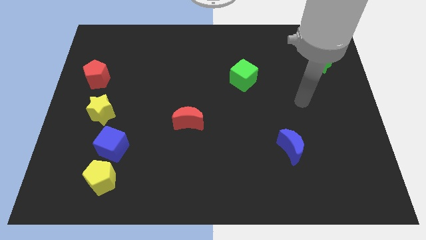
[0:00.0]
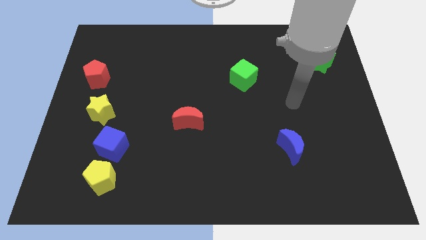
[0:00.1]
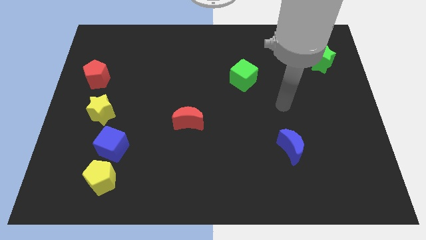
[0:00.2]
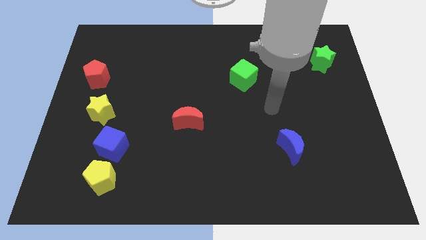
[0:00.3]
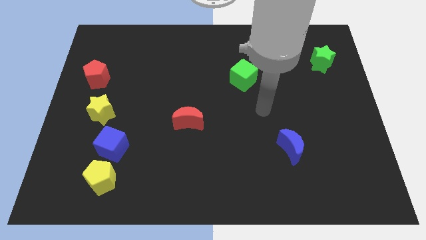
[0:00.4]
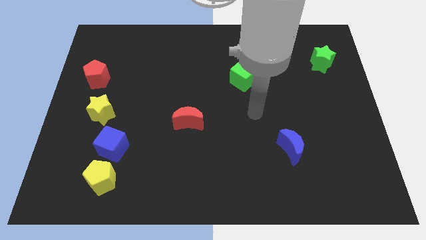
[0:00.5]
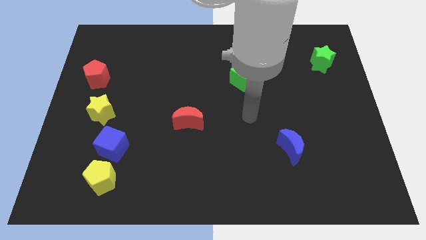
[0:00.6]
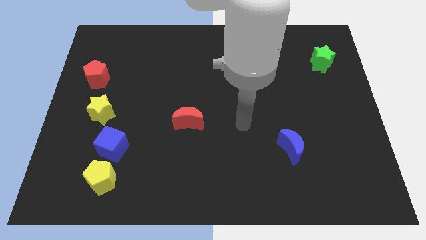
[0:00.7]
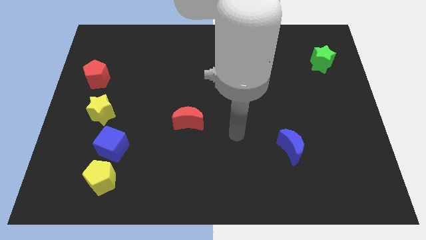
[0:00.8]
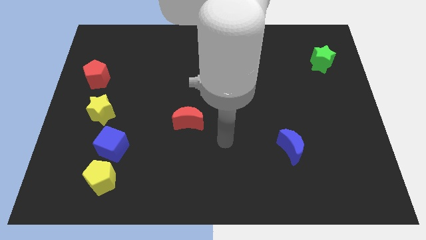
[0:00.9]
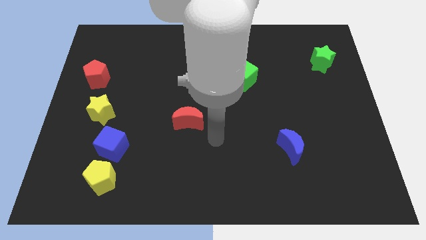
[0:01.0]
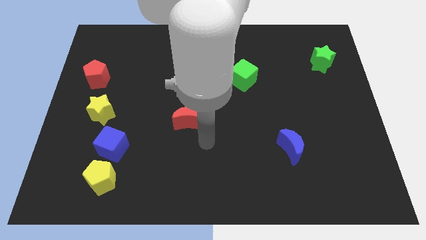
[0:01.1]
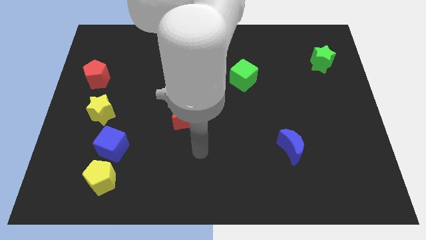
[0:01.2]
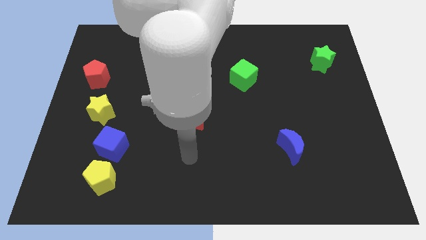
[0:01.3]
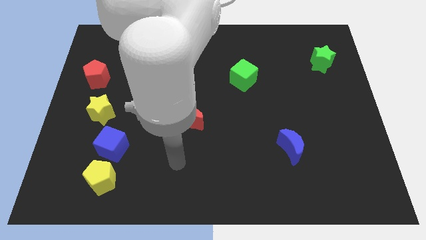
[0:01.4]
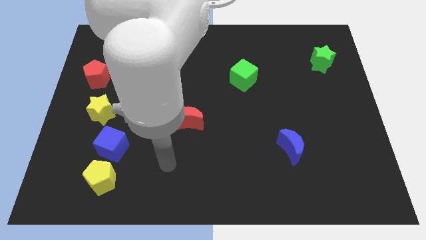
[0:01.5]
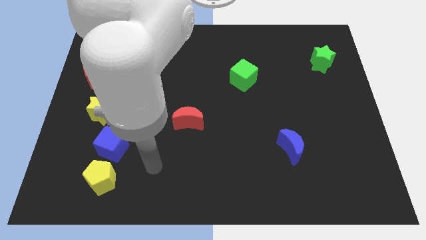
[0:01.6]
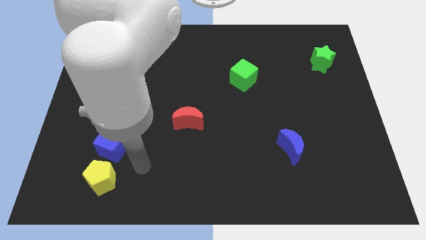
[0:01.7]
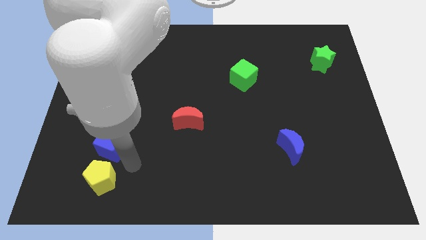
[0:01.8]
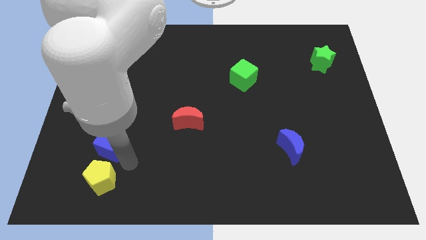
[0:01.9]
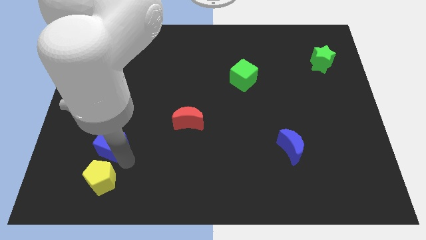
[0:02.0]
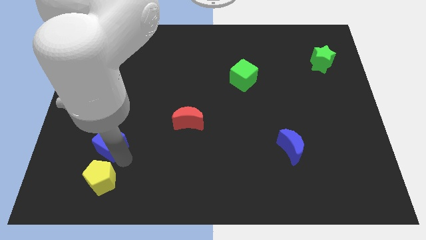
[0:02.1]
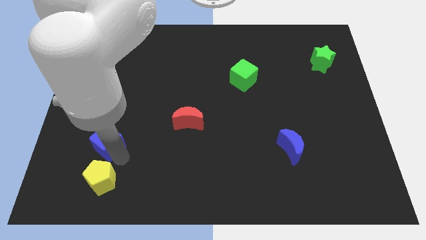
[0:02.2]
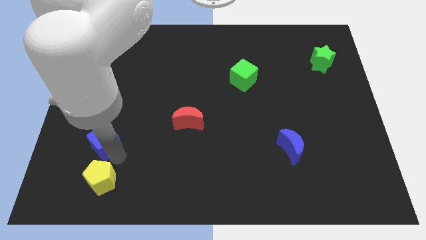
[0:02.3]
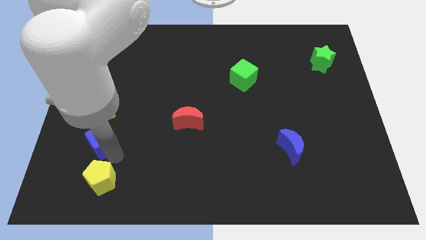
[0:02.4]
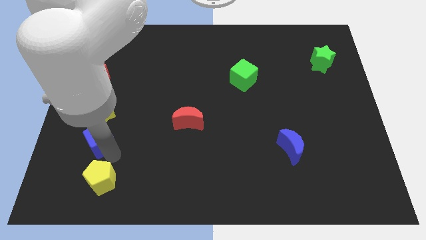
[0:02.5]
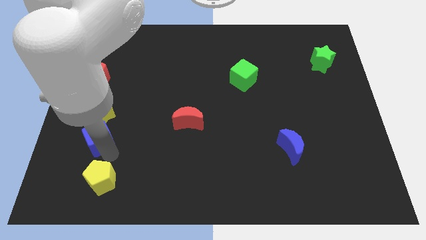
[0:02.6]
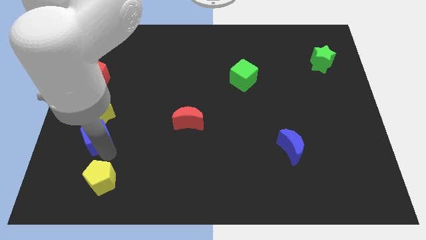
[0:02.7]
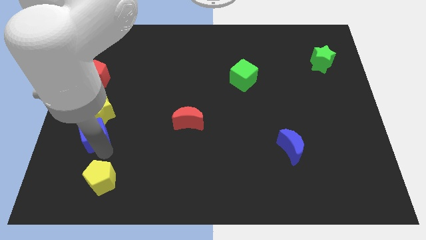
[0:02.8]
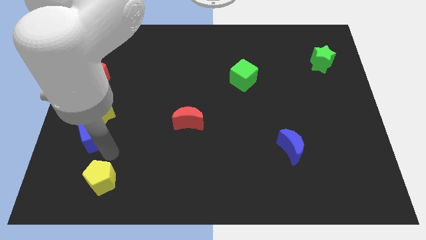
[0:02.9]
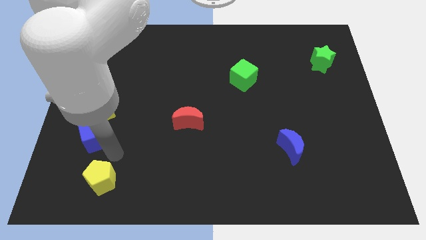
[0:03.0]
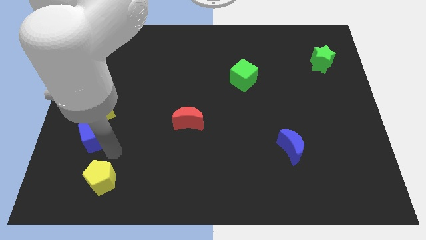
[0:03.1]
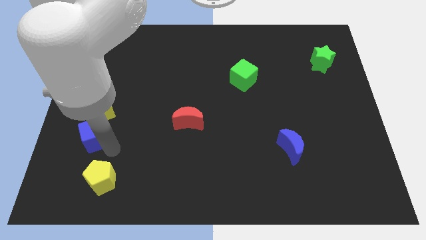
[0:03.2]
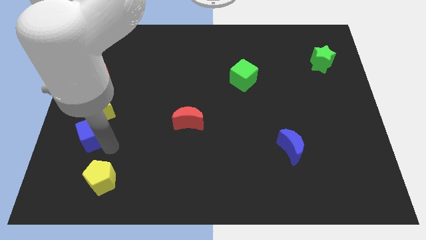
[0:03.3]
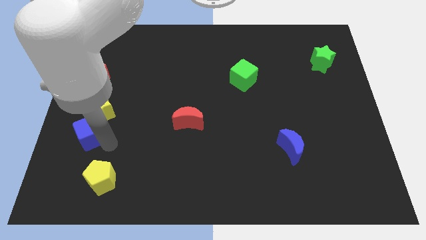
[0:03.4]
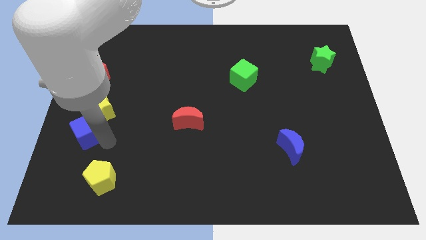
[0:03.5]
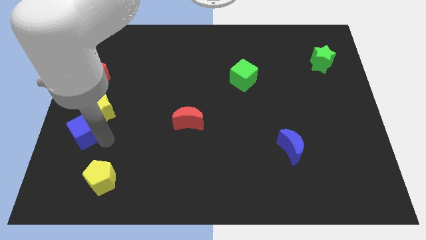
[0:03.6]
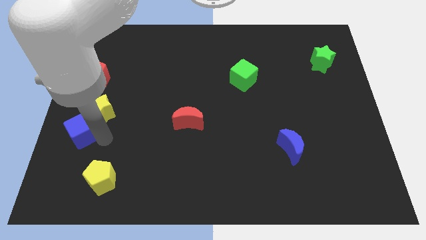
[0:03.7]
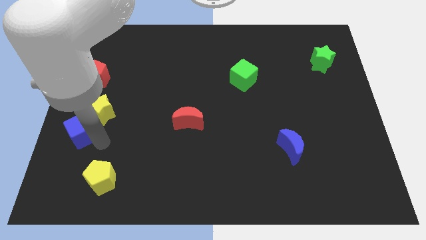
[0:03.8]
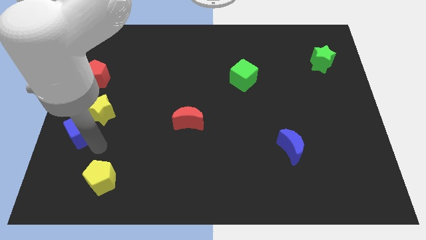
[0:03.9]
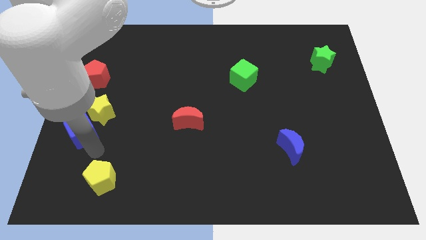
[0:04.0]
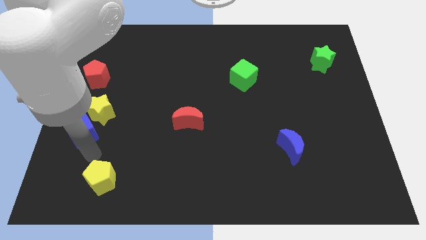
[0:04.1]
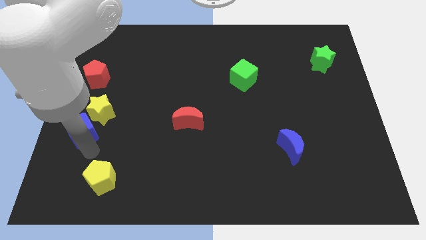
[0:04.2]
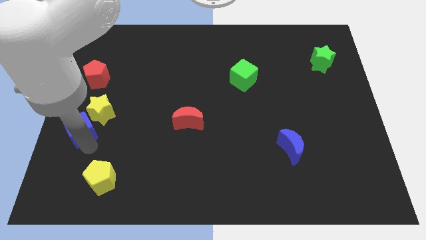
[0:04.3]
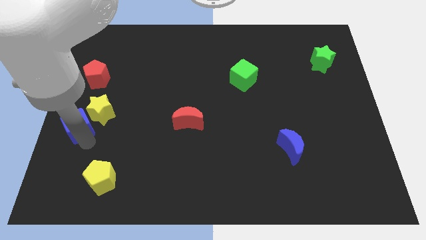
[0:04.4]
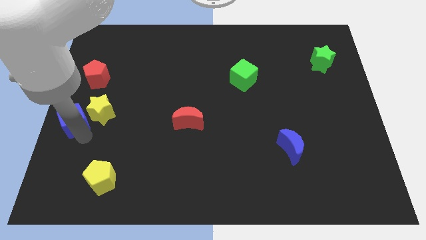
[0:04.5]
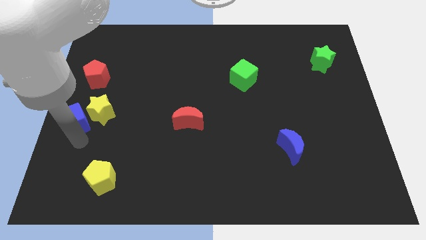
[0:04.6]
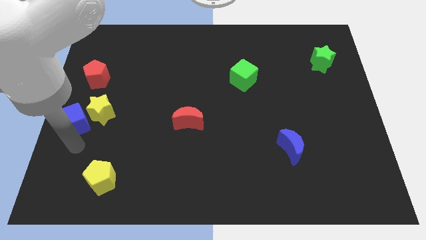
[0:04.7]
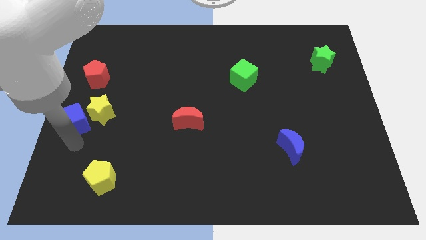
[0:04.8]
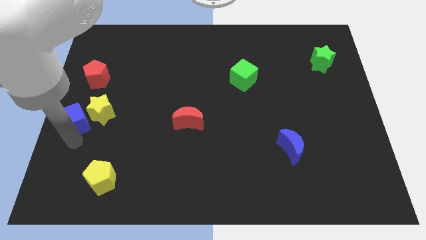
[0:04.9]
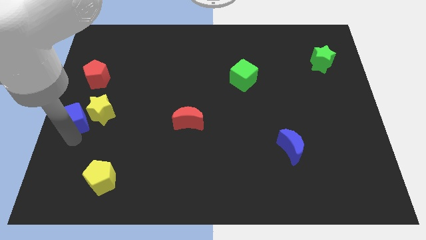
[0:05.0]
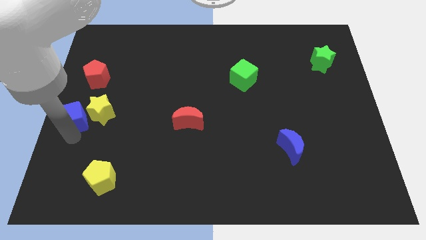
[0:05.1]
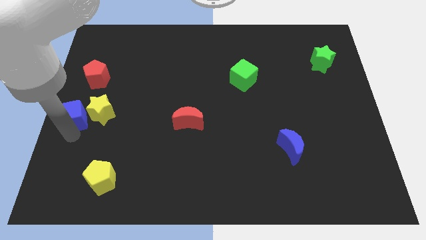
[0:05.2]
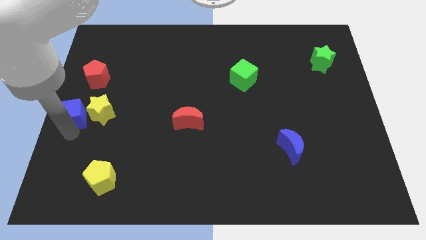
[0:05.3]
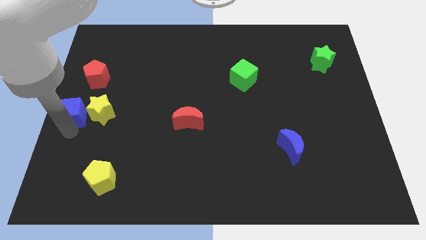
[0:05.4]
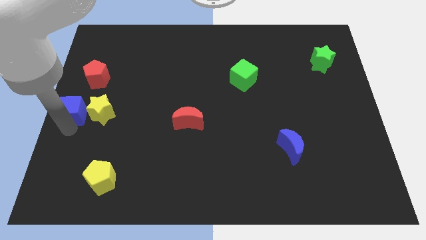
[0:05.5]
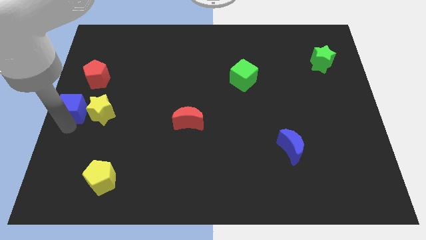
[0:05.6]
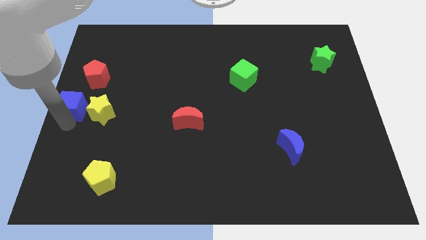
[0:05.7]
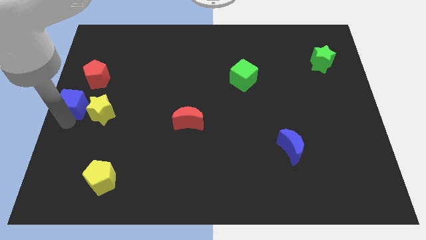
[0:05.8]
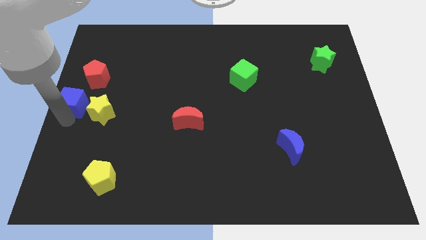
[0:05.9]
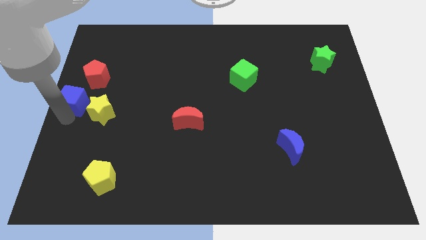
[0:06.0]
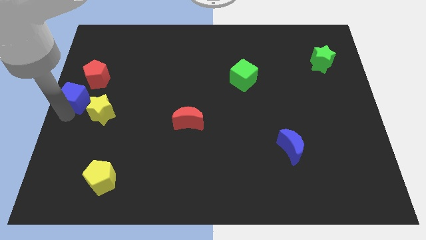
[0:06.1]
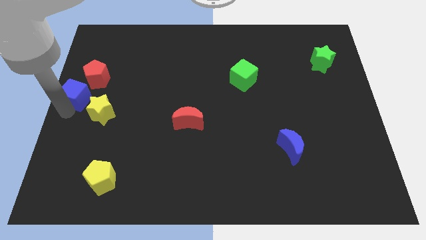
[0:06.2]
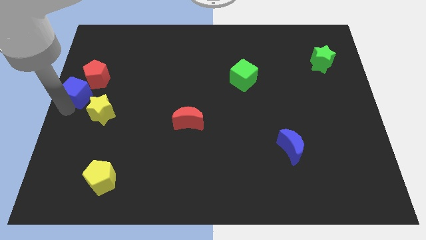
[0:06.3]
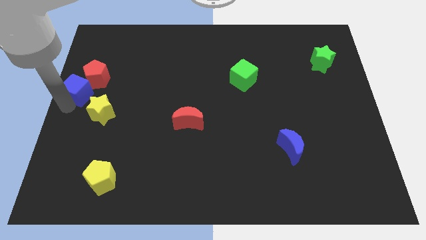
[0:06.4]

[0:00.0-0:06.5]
push the blue cube towards the red pentagon
